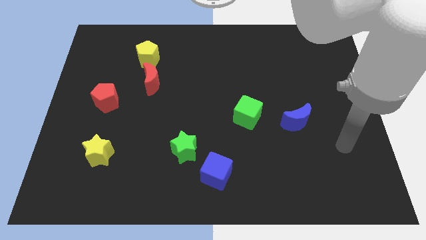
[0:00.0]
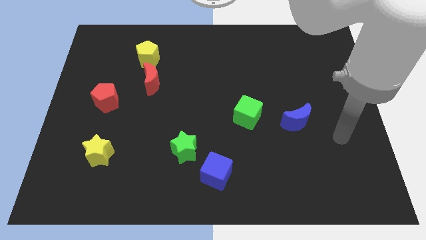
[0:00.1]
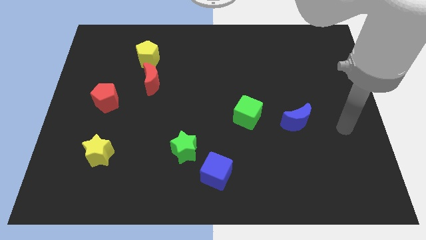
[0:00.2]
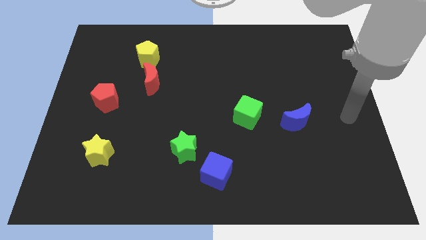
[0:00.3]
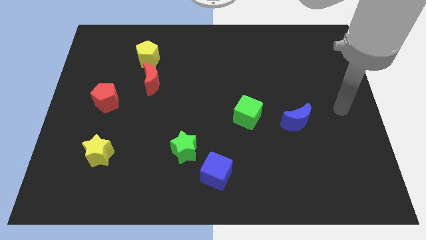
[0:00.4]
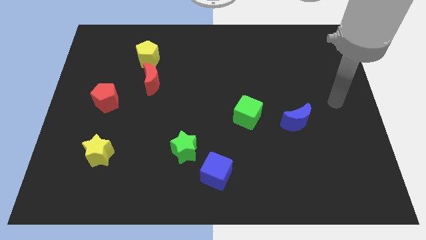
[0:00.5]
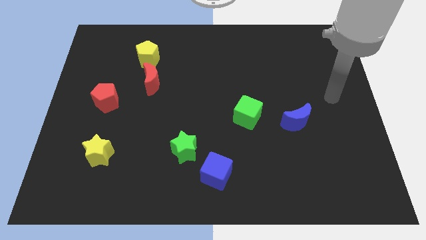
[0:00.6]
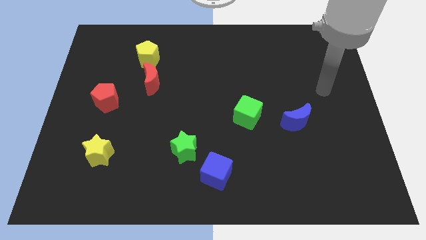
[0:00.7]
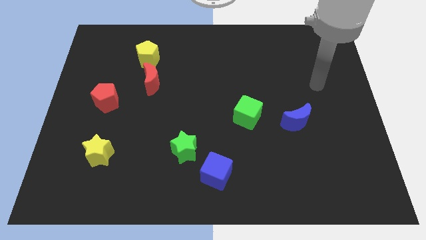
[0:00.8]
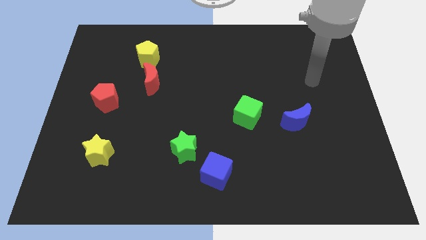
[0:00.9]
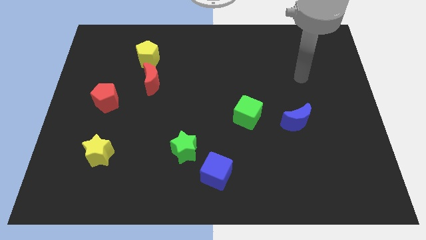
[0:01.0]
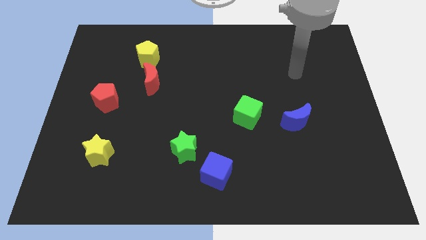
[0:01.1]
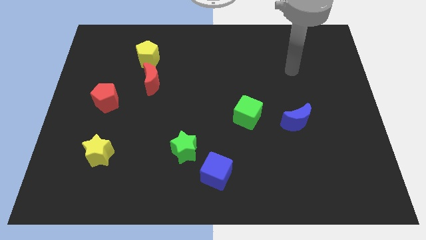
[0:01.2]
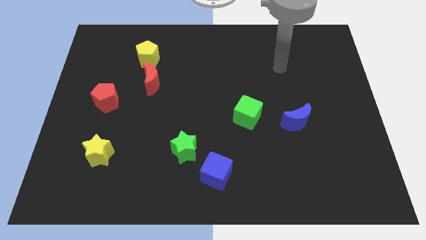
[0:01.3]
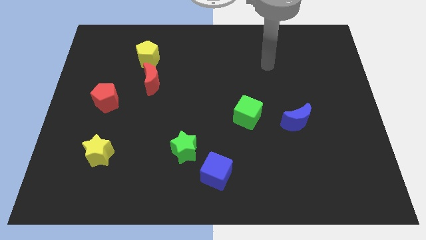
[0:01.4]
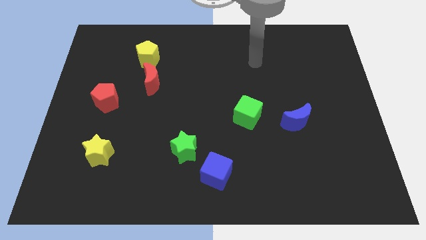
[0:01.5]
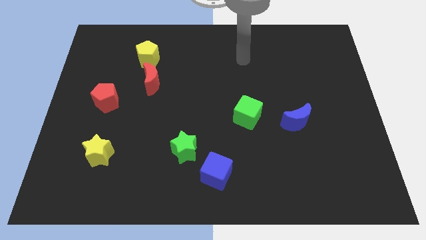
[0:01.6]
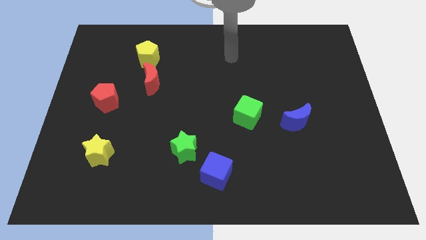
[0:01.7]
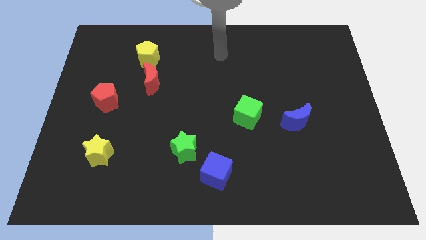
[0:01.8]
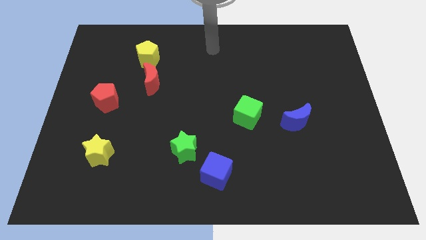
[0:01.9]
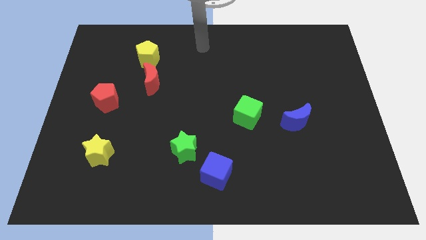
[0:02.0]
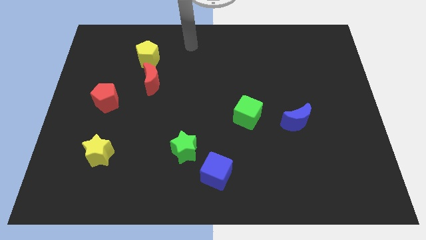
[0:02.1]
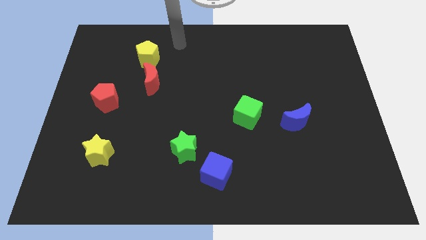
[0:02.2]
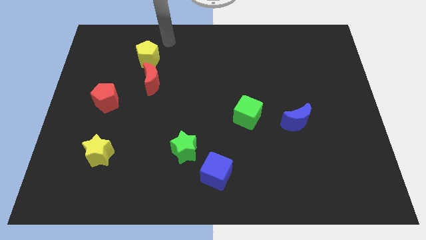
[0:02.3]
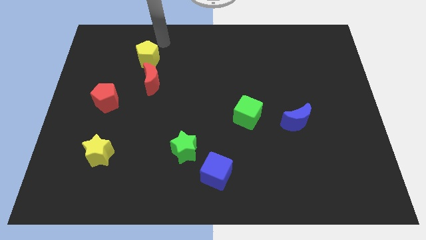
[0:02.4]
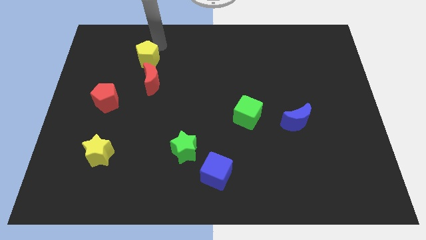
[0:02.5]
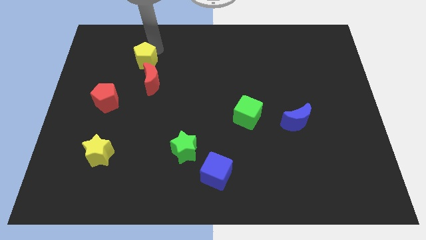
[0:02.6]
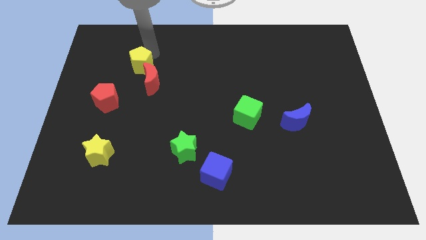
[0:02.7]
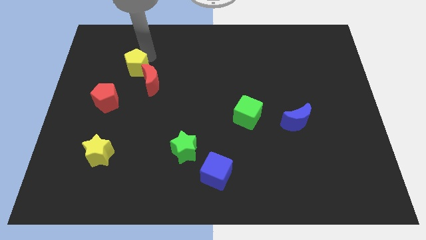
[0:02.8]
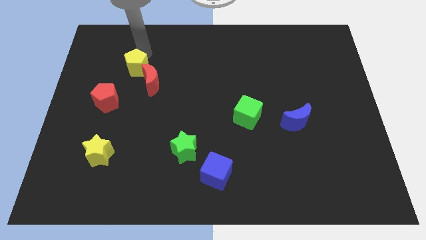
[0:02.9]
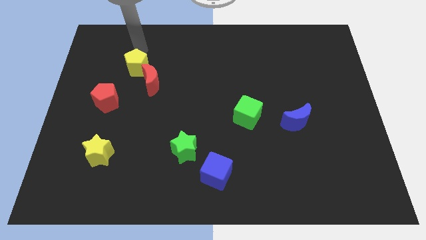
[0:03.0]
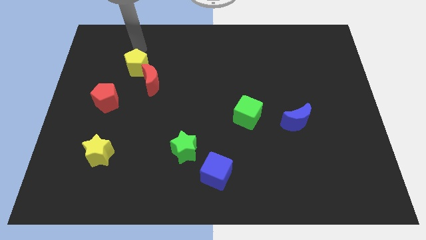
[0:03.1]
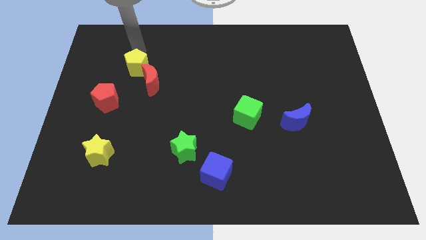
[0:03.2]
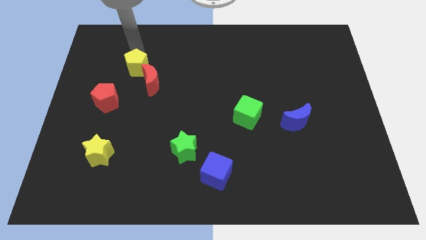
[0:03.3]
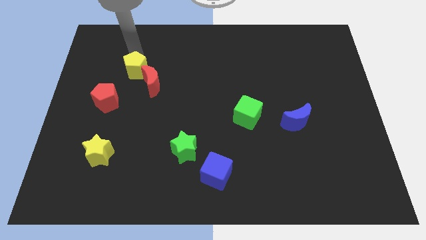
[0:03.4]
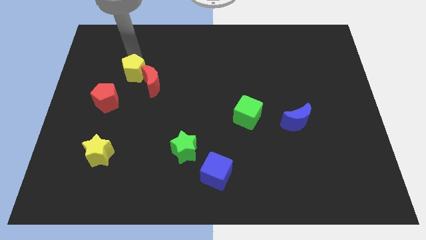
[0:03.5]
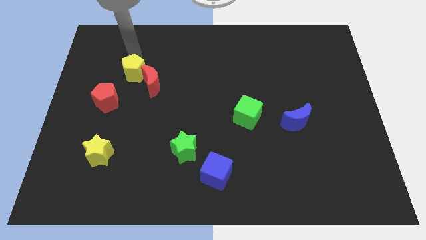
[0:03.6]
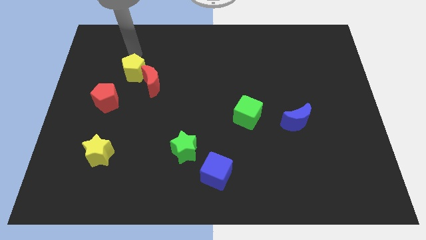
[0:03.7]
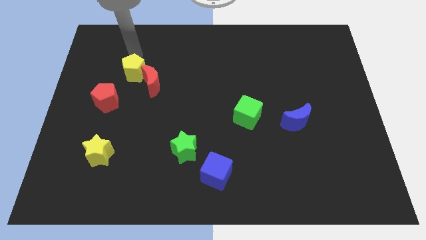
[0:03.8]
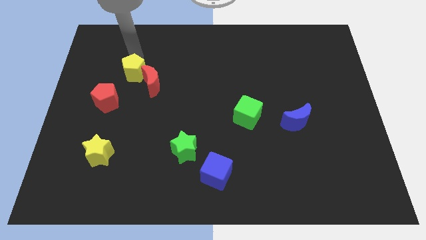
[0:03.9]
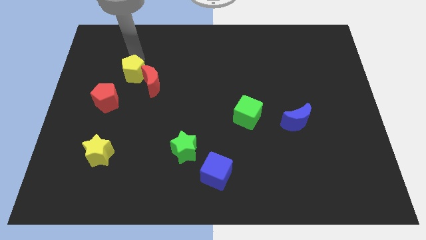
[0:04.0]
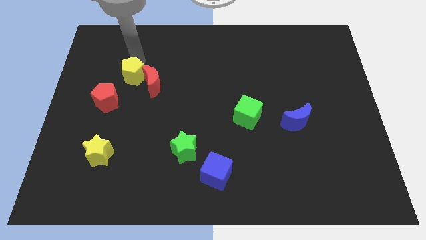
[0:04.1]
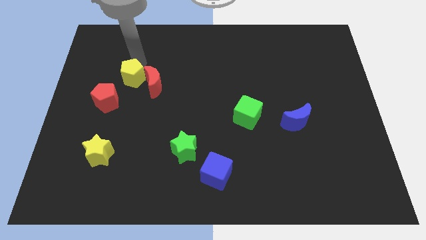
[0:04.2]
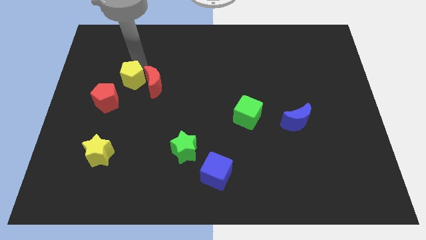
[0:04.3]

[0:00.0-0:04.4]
slide the yellow pentagon a bit downwards

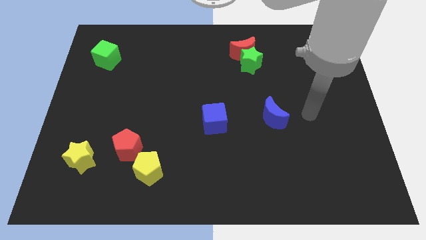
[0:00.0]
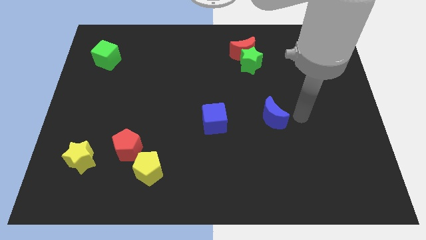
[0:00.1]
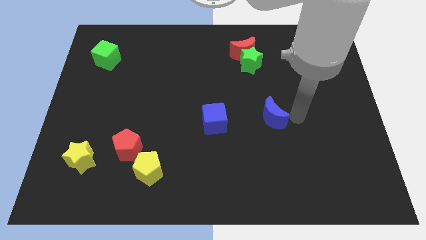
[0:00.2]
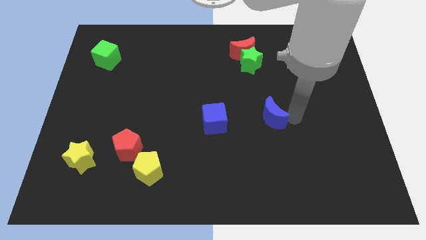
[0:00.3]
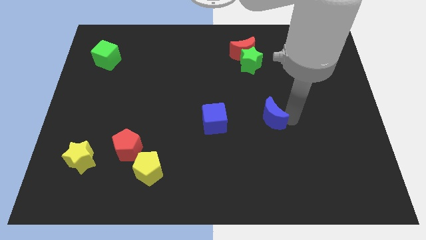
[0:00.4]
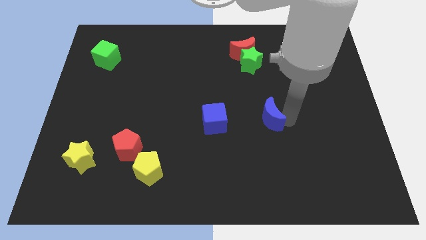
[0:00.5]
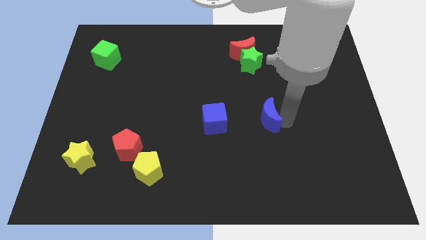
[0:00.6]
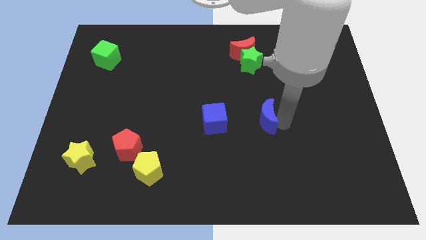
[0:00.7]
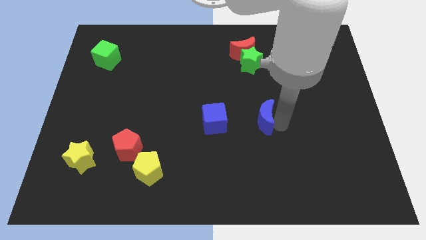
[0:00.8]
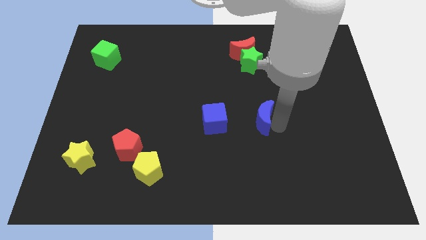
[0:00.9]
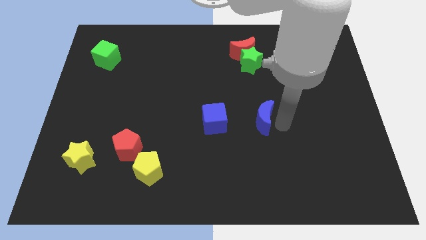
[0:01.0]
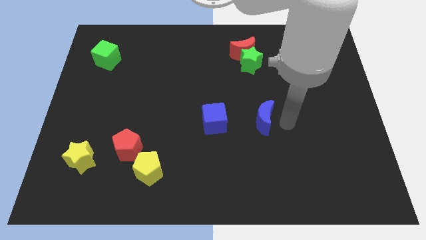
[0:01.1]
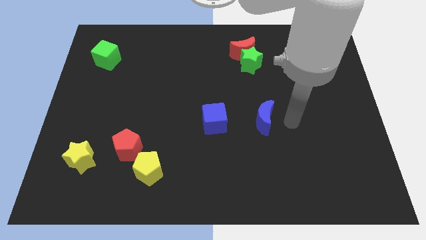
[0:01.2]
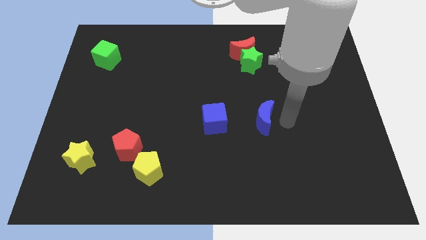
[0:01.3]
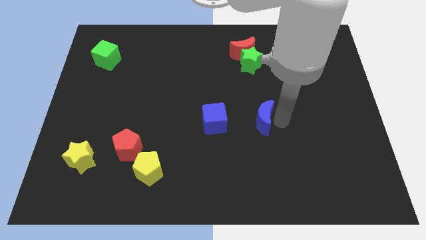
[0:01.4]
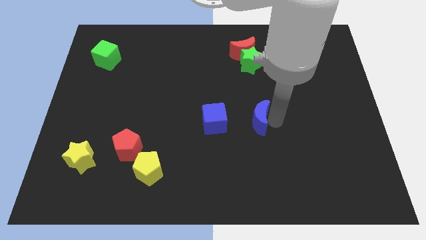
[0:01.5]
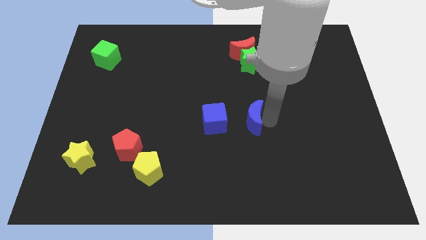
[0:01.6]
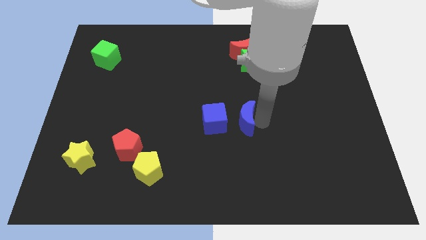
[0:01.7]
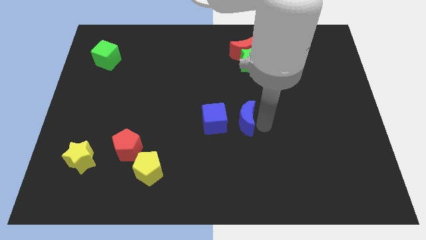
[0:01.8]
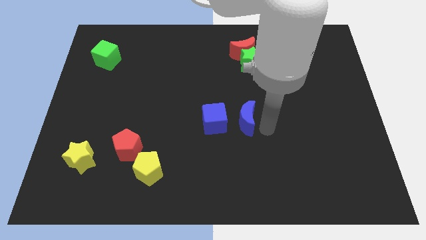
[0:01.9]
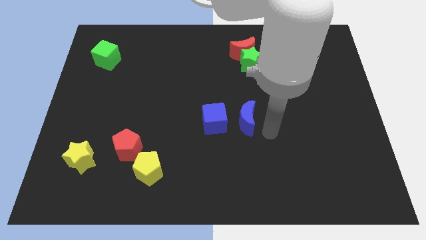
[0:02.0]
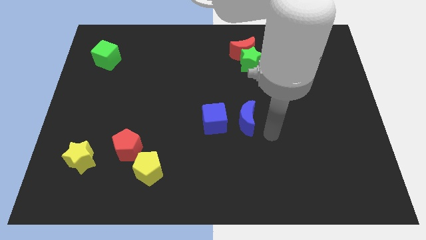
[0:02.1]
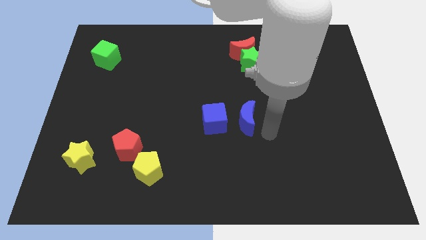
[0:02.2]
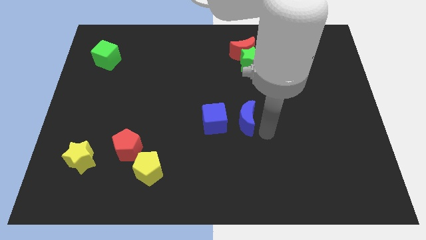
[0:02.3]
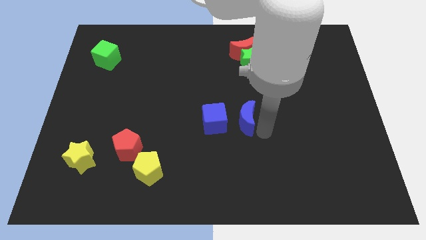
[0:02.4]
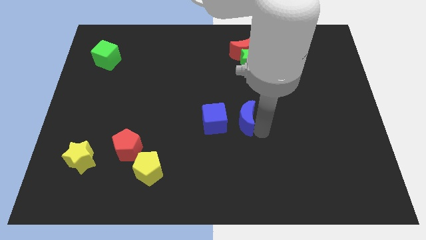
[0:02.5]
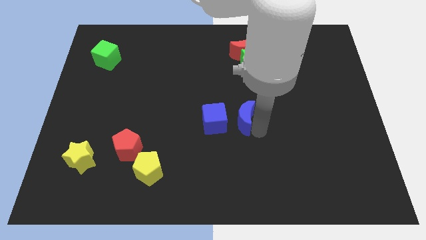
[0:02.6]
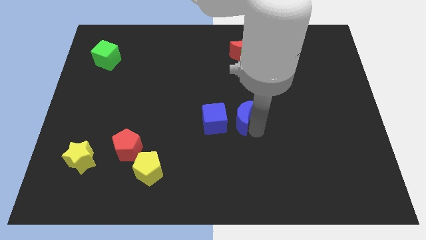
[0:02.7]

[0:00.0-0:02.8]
push the blue moon a little bit left

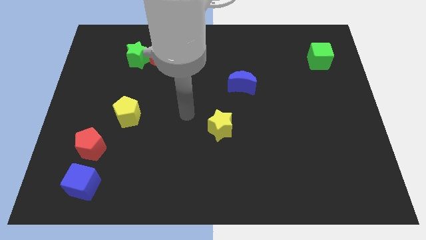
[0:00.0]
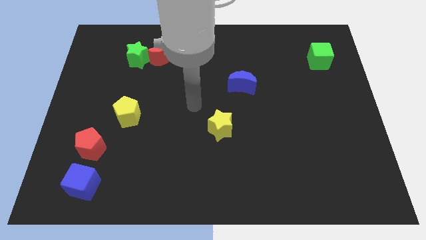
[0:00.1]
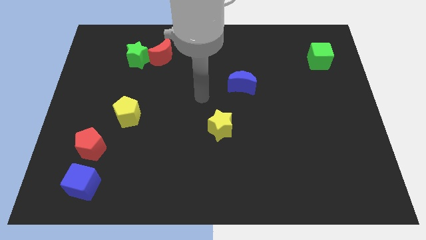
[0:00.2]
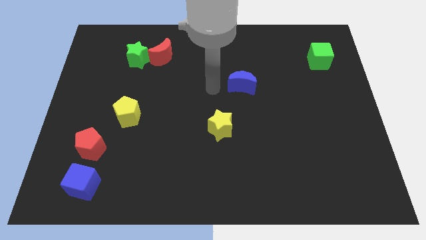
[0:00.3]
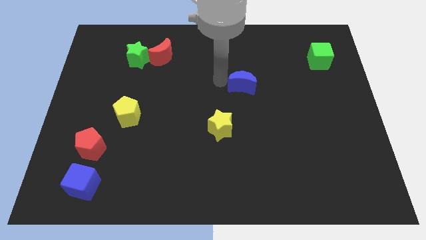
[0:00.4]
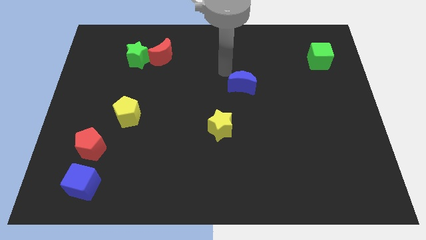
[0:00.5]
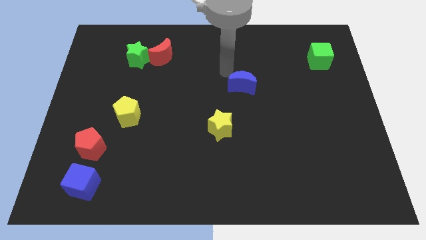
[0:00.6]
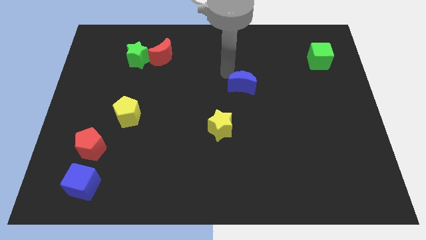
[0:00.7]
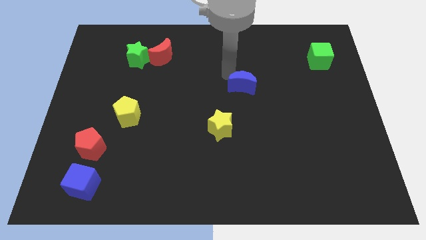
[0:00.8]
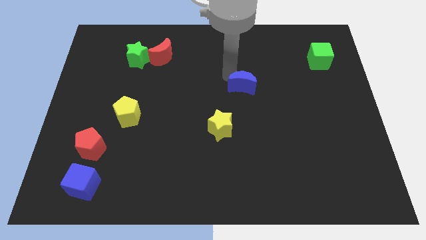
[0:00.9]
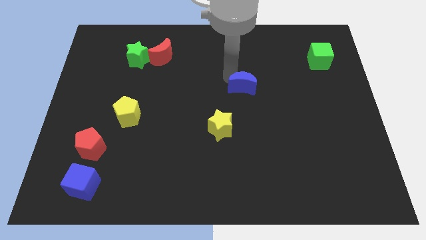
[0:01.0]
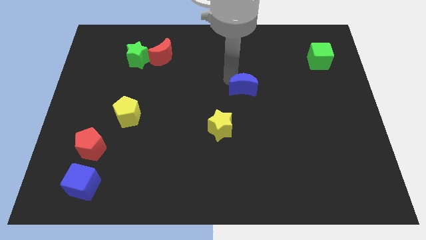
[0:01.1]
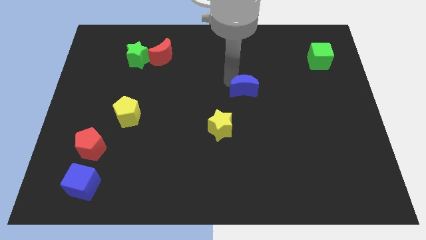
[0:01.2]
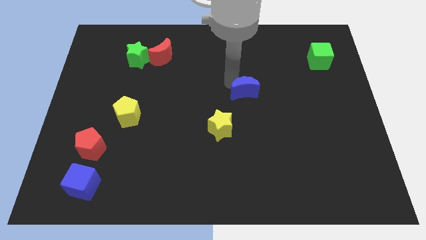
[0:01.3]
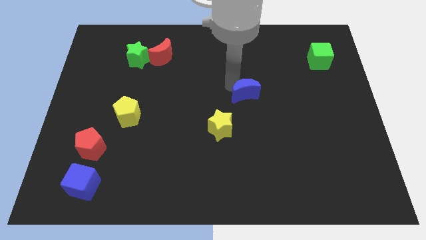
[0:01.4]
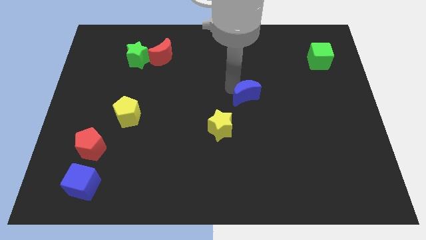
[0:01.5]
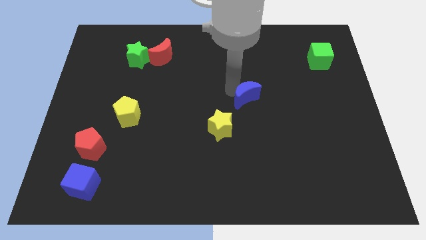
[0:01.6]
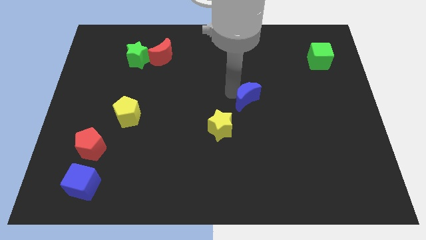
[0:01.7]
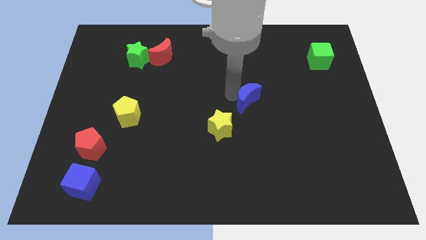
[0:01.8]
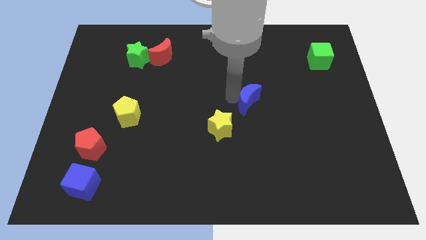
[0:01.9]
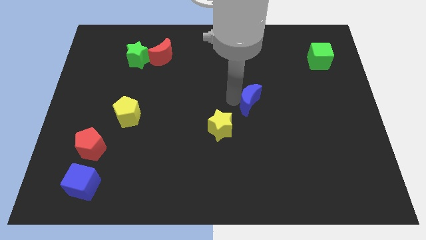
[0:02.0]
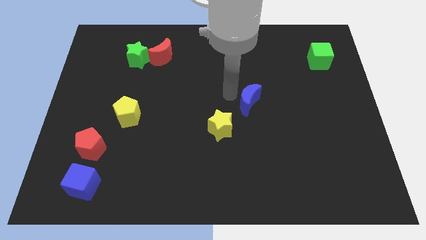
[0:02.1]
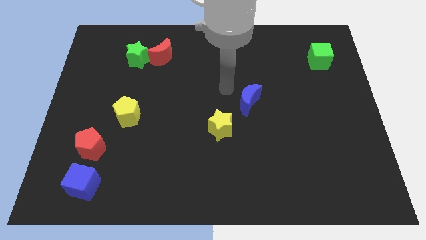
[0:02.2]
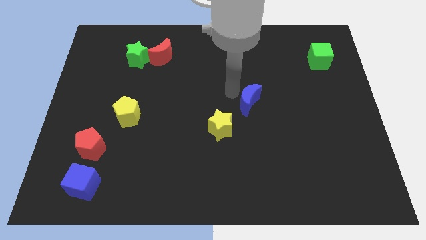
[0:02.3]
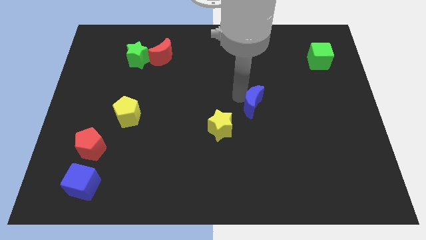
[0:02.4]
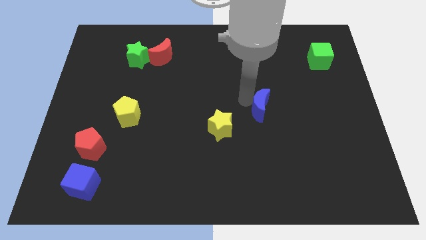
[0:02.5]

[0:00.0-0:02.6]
slide the blue moon a little bit down and then to the right
